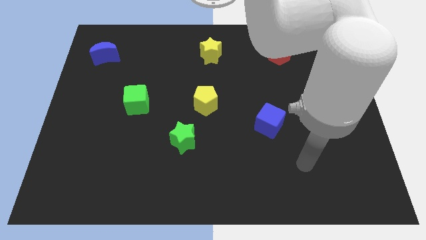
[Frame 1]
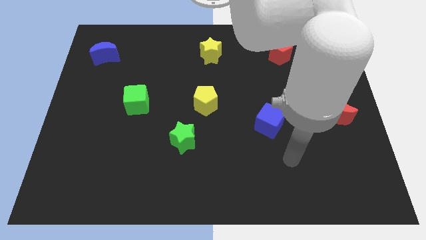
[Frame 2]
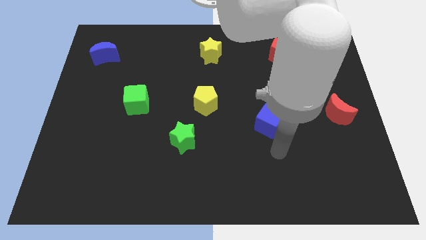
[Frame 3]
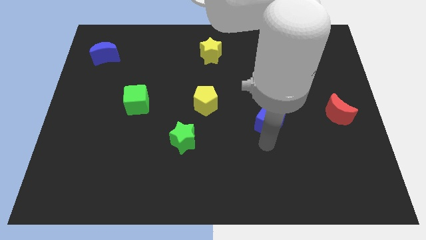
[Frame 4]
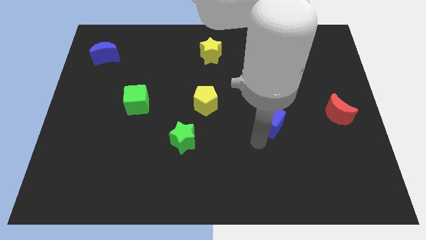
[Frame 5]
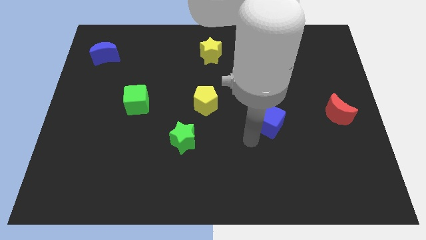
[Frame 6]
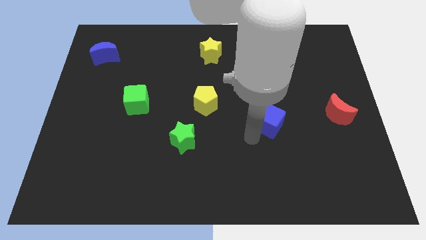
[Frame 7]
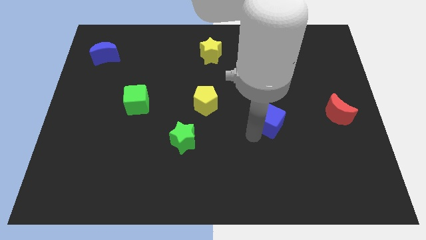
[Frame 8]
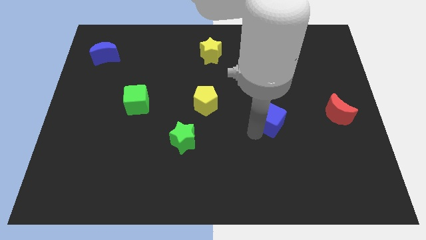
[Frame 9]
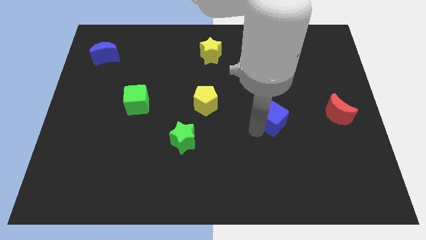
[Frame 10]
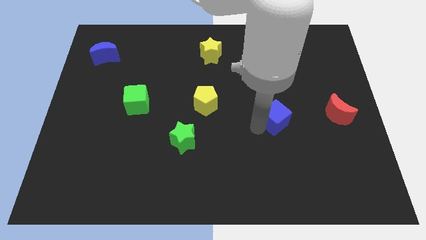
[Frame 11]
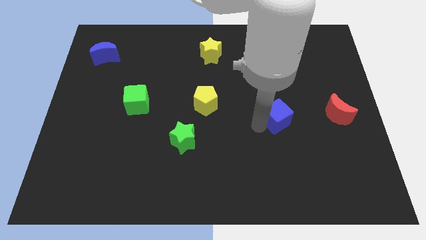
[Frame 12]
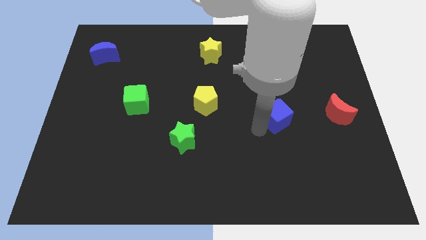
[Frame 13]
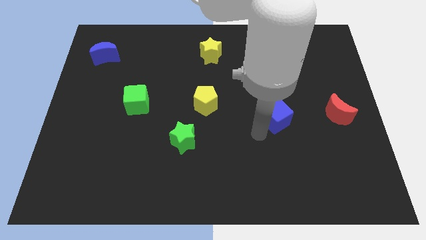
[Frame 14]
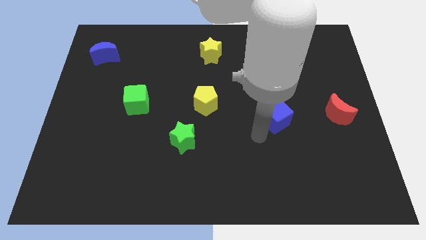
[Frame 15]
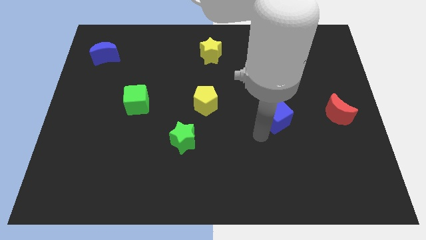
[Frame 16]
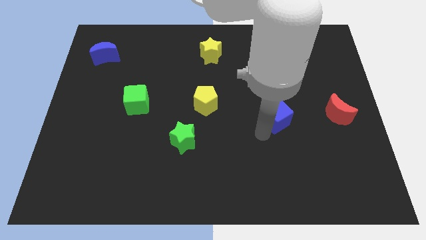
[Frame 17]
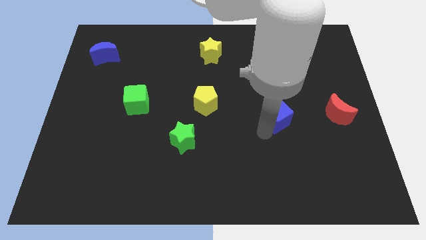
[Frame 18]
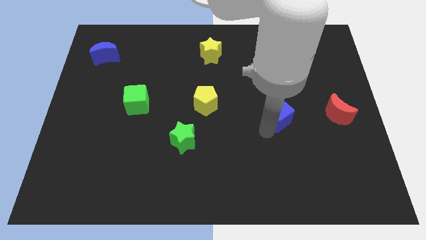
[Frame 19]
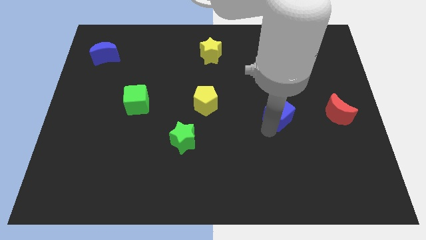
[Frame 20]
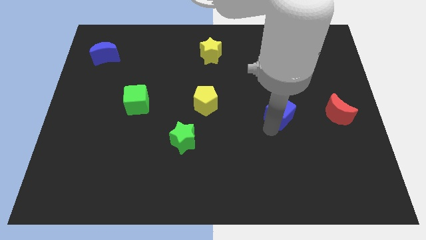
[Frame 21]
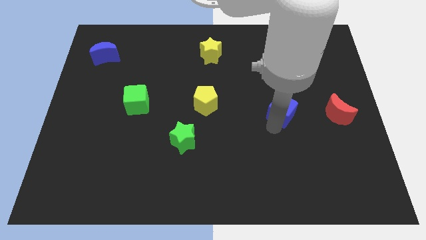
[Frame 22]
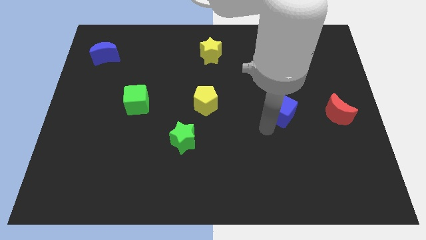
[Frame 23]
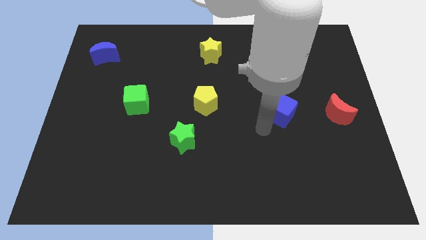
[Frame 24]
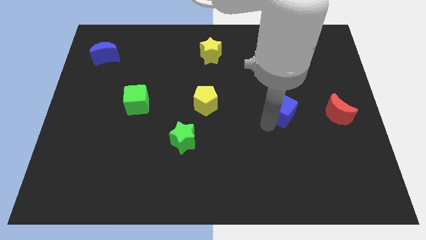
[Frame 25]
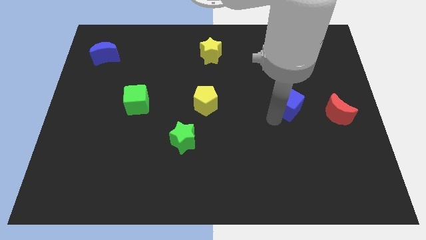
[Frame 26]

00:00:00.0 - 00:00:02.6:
slide the blue cube a little bit upwards and right diagonally

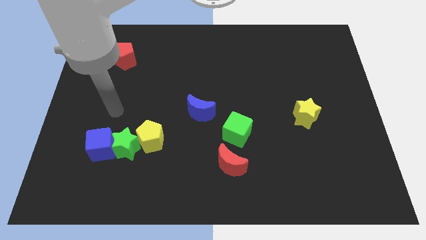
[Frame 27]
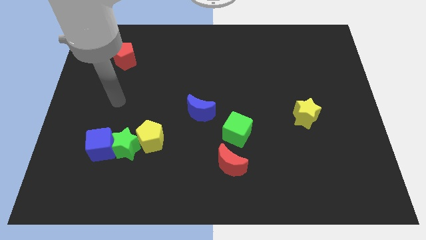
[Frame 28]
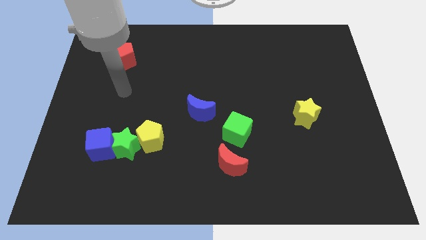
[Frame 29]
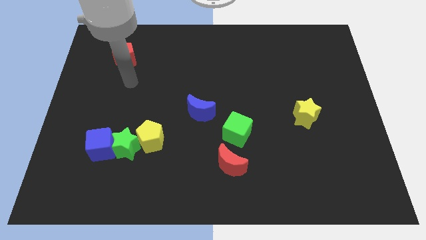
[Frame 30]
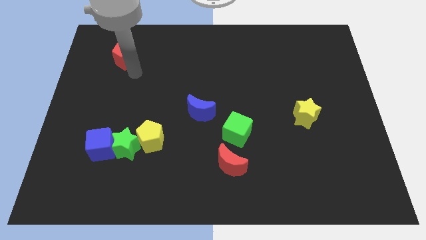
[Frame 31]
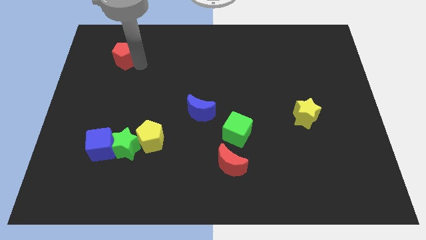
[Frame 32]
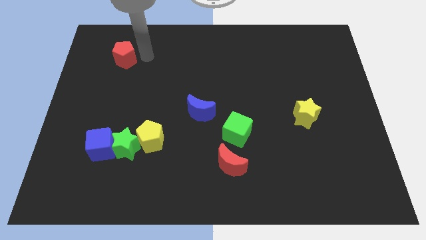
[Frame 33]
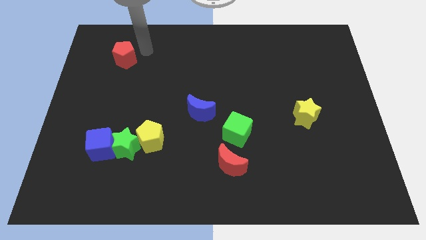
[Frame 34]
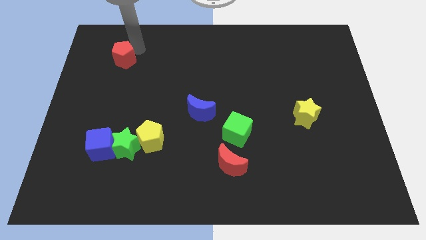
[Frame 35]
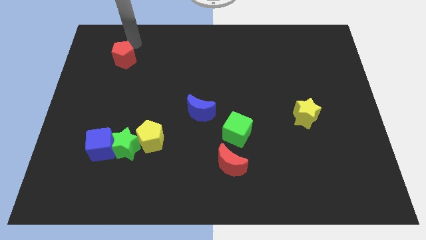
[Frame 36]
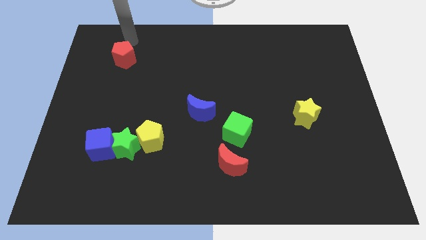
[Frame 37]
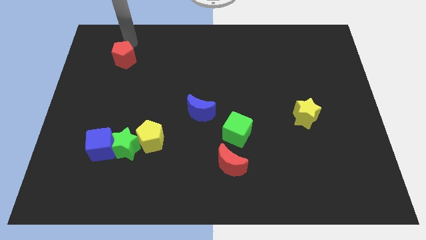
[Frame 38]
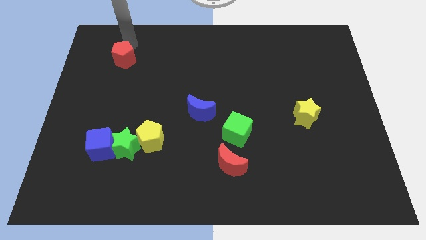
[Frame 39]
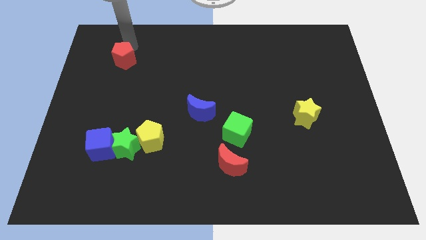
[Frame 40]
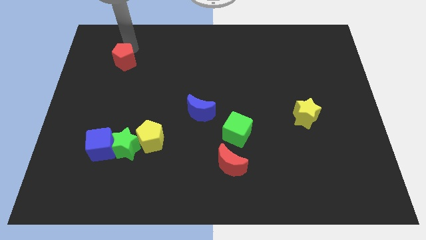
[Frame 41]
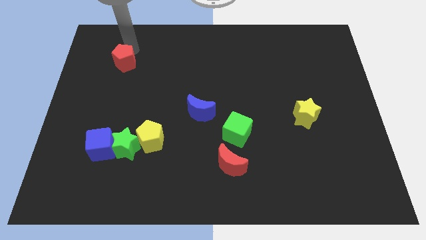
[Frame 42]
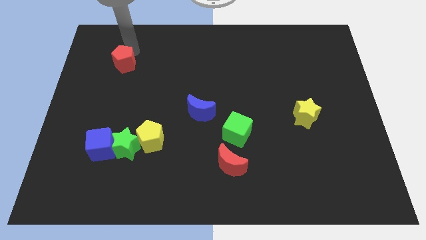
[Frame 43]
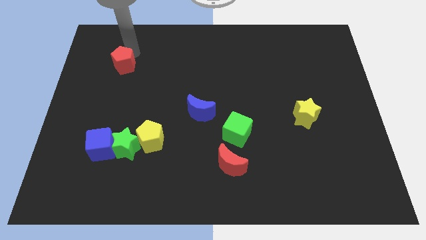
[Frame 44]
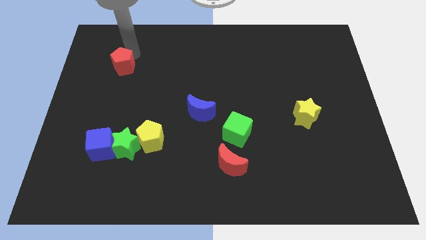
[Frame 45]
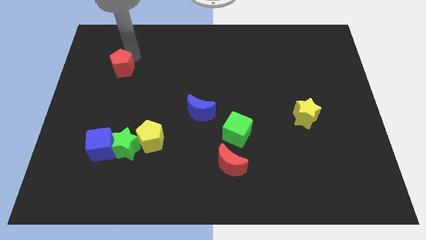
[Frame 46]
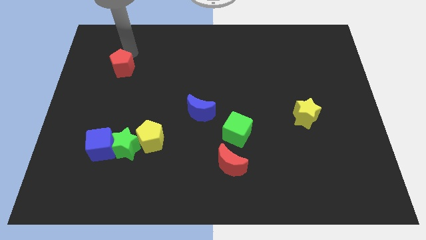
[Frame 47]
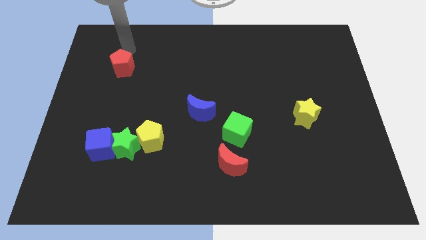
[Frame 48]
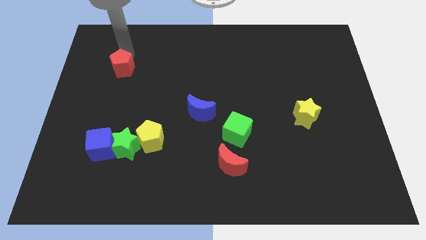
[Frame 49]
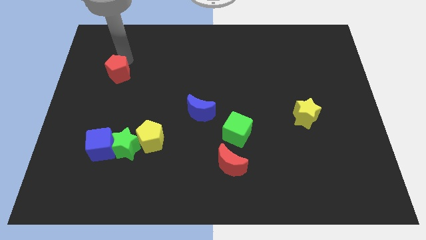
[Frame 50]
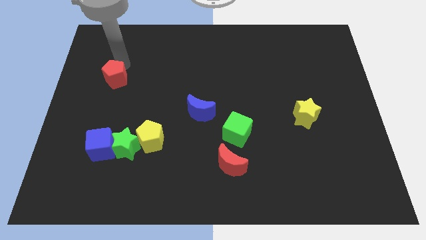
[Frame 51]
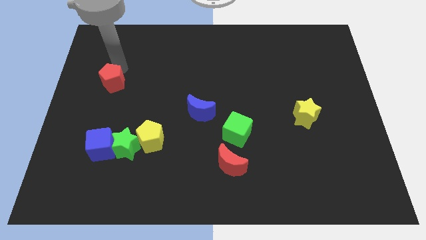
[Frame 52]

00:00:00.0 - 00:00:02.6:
slide the red pentagon a bit downwards

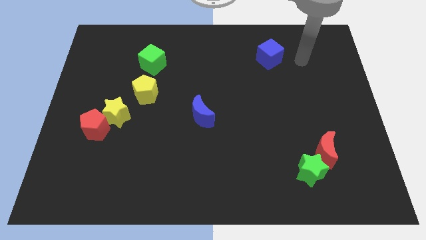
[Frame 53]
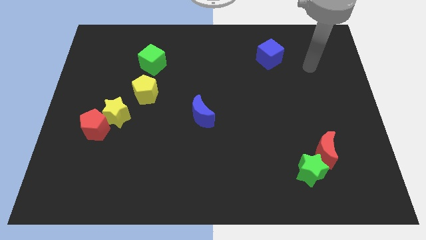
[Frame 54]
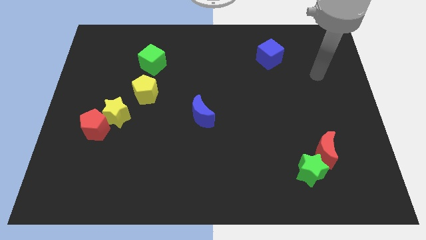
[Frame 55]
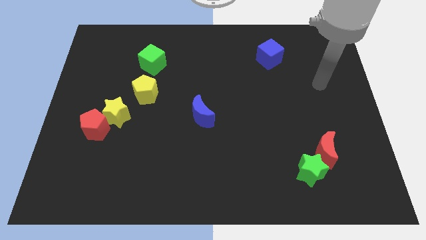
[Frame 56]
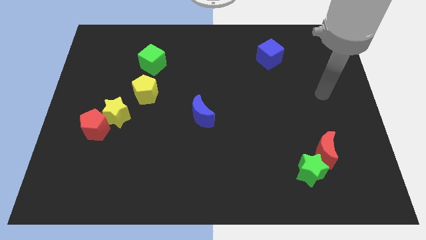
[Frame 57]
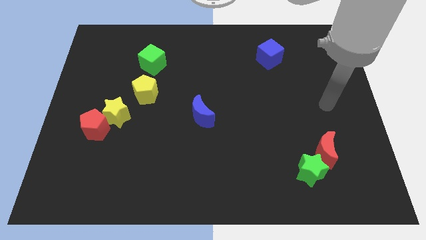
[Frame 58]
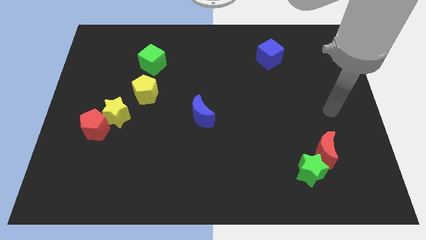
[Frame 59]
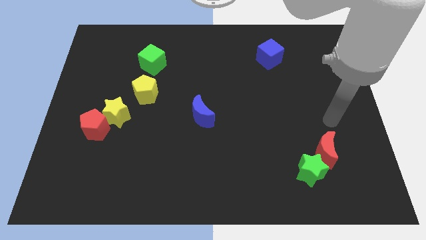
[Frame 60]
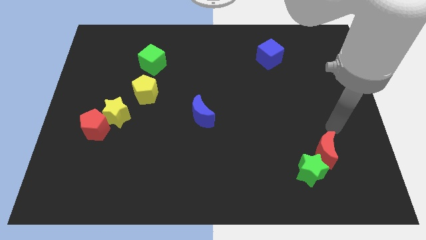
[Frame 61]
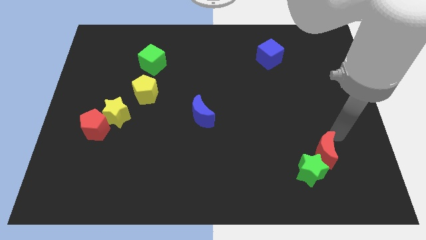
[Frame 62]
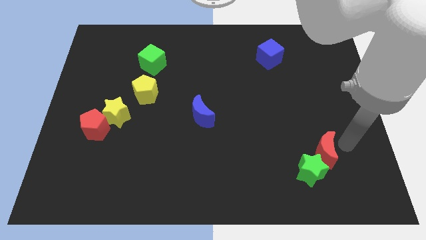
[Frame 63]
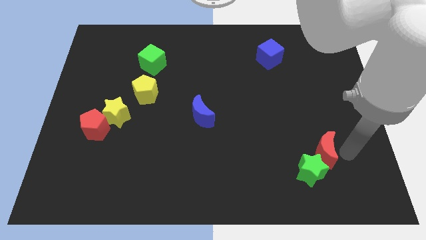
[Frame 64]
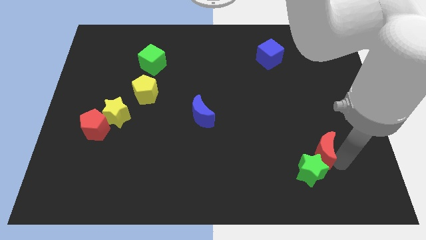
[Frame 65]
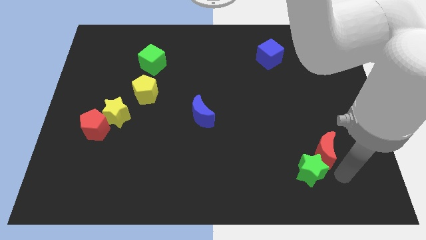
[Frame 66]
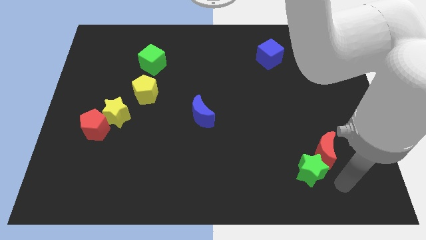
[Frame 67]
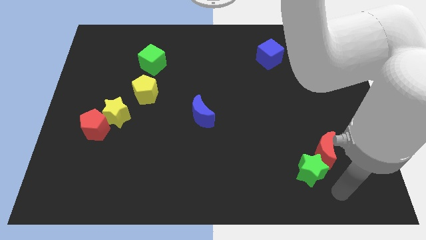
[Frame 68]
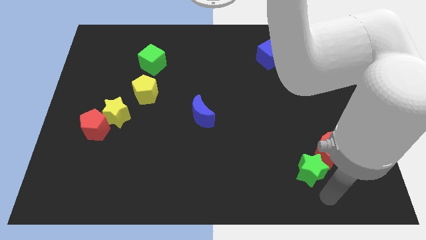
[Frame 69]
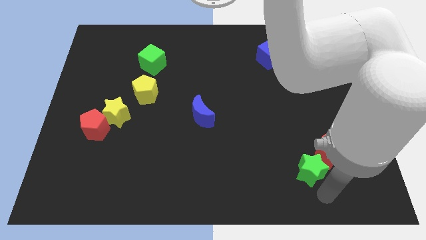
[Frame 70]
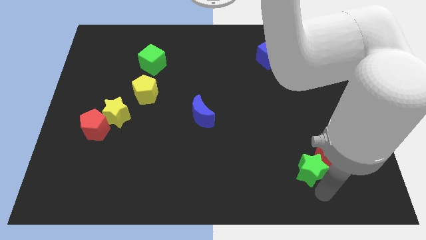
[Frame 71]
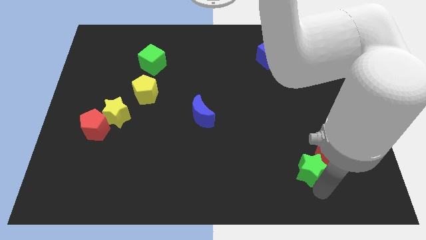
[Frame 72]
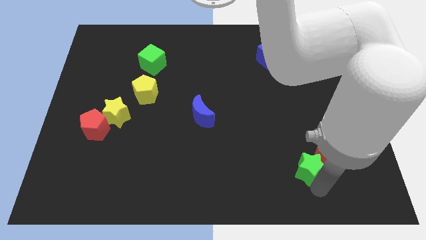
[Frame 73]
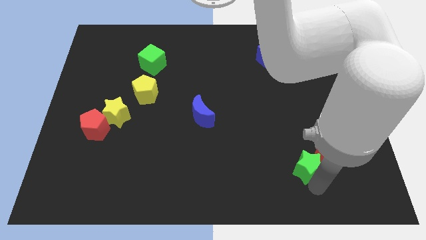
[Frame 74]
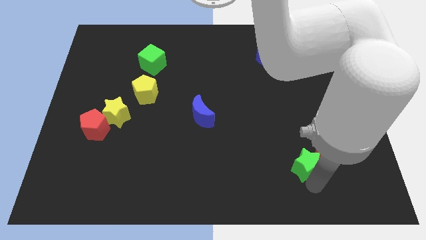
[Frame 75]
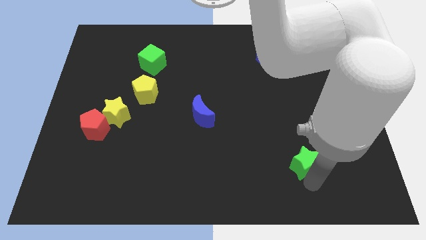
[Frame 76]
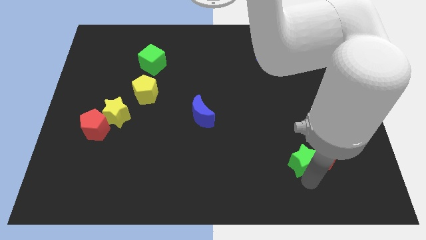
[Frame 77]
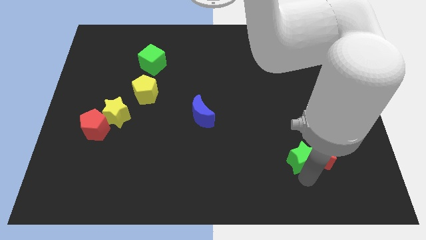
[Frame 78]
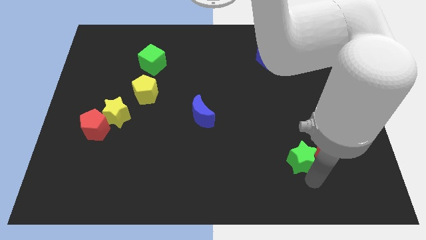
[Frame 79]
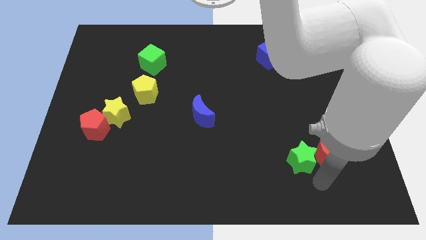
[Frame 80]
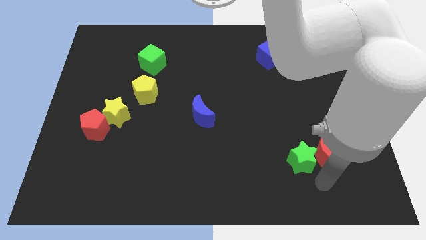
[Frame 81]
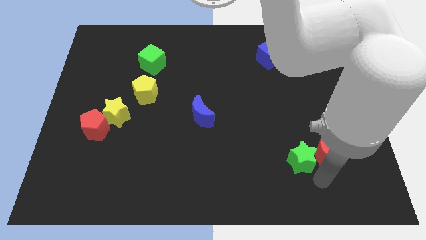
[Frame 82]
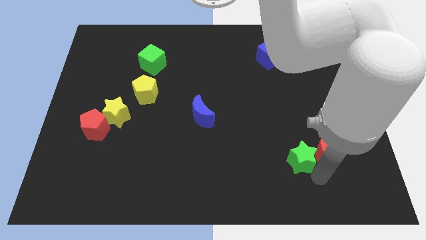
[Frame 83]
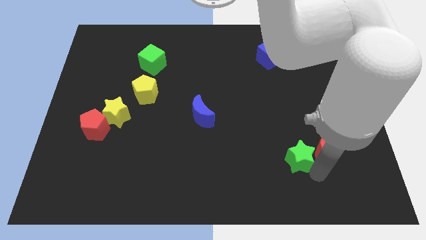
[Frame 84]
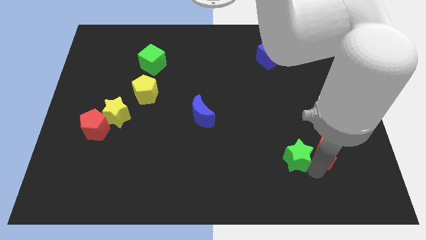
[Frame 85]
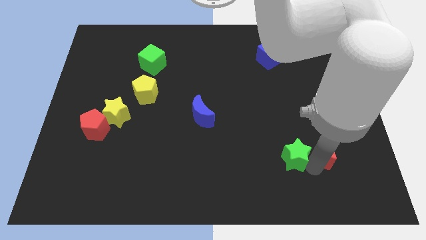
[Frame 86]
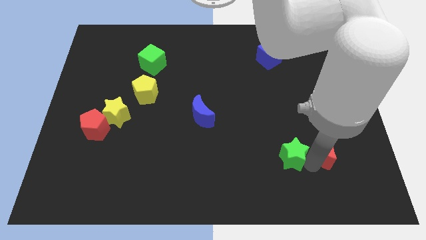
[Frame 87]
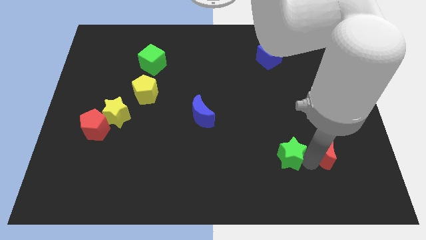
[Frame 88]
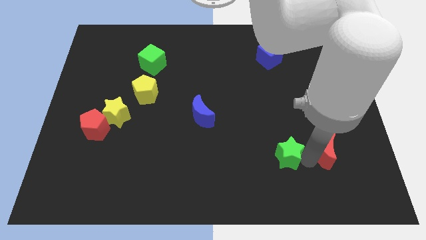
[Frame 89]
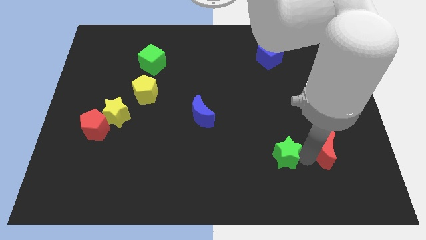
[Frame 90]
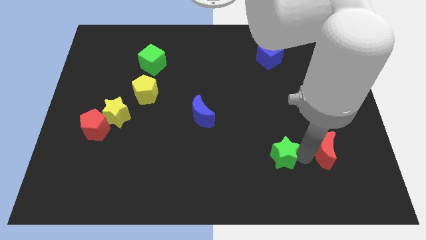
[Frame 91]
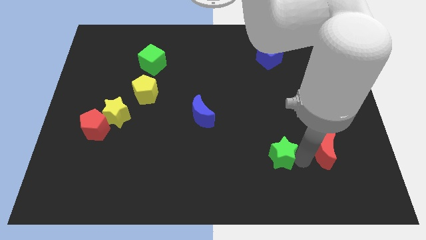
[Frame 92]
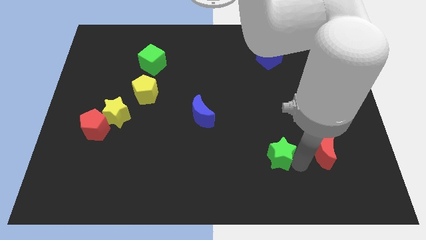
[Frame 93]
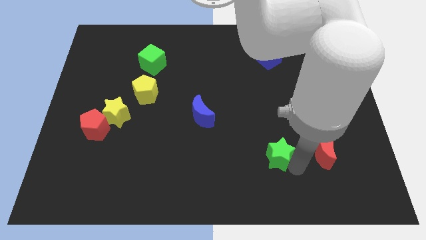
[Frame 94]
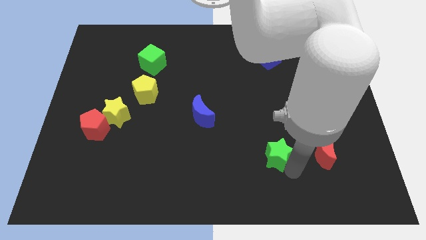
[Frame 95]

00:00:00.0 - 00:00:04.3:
push the green star somewhat up and to the left diagonally
